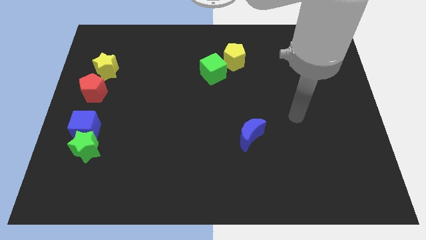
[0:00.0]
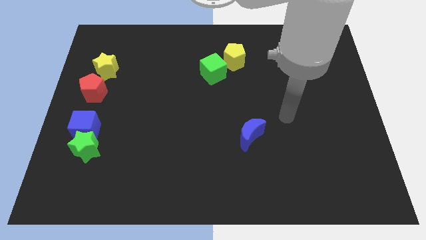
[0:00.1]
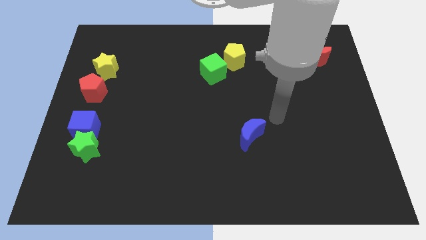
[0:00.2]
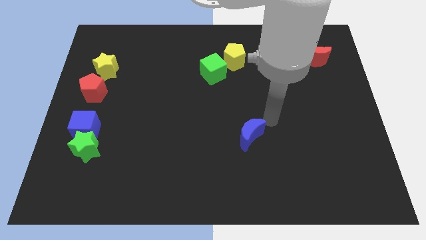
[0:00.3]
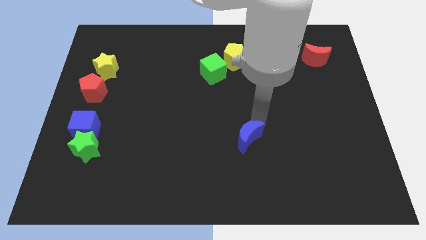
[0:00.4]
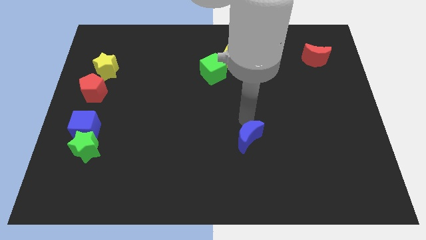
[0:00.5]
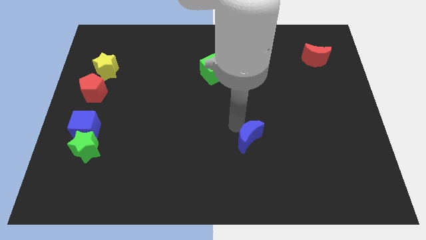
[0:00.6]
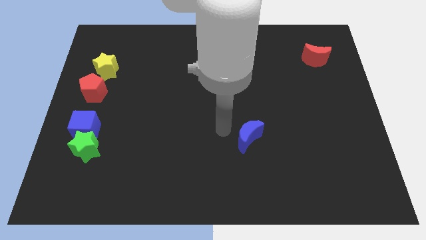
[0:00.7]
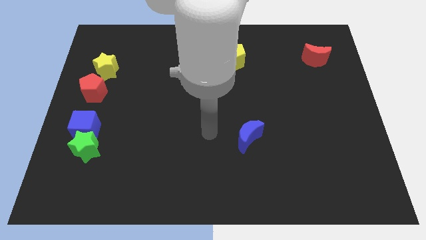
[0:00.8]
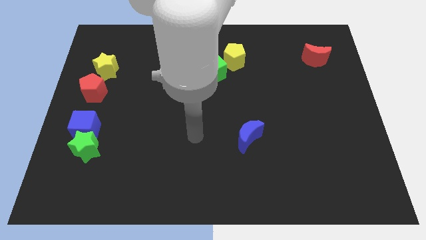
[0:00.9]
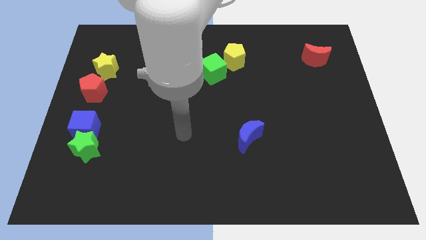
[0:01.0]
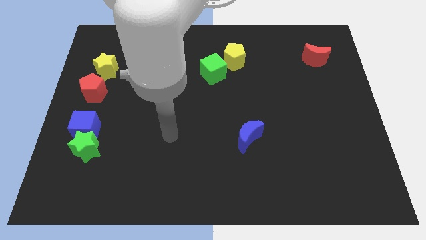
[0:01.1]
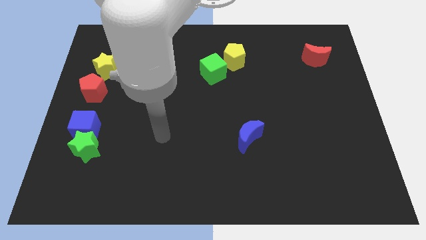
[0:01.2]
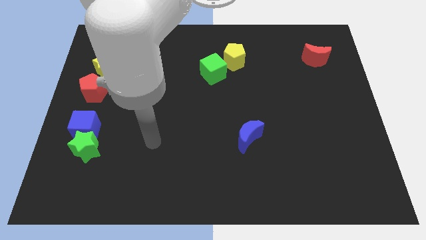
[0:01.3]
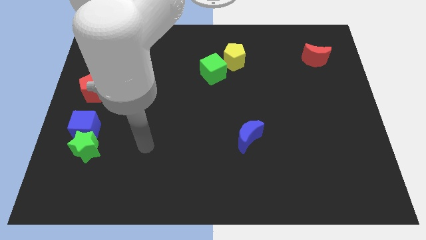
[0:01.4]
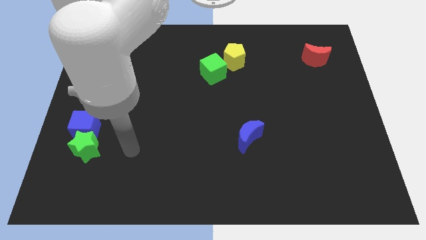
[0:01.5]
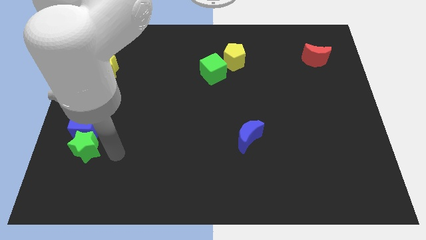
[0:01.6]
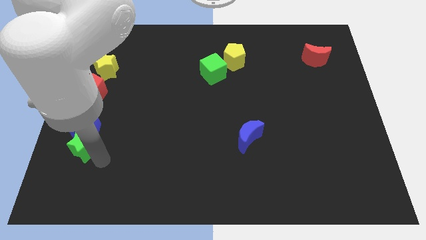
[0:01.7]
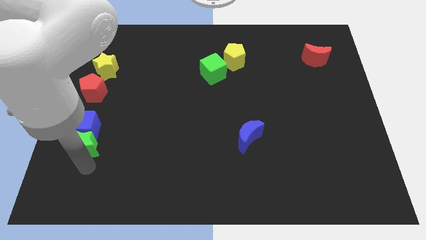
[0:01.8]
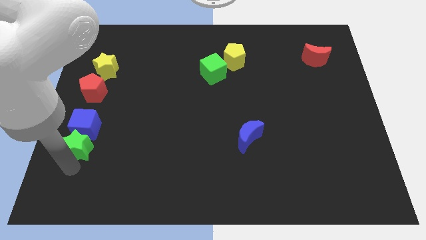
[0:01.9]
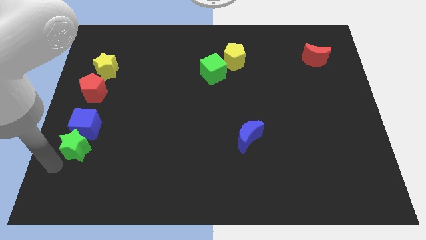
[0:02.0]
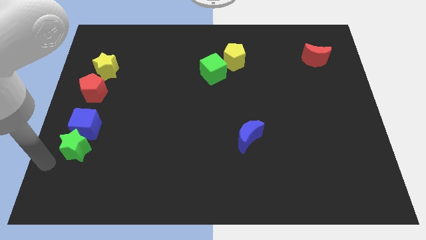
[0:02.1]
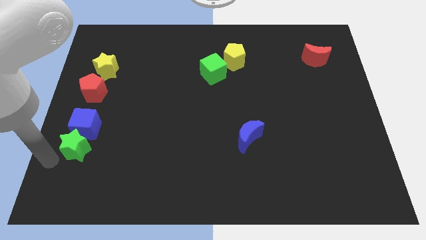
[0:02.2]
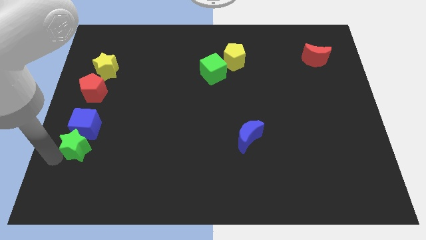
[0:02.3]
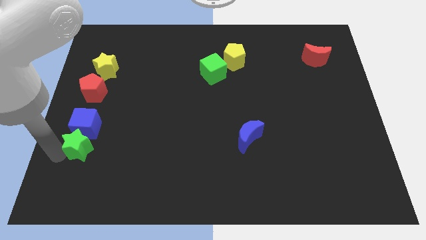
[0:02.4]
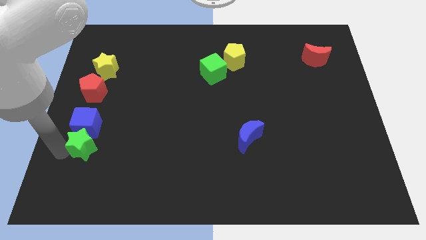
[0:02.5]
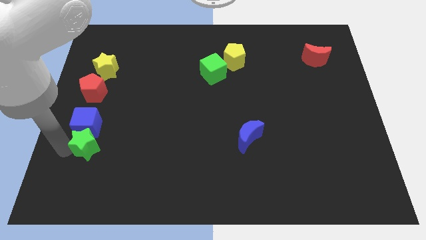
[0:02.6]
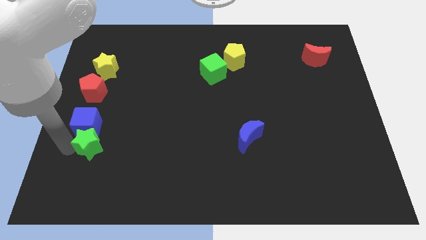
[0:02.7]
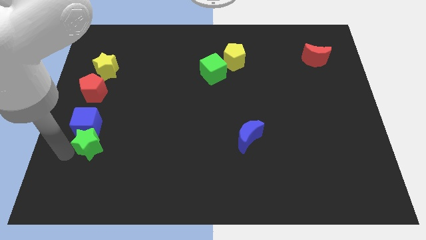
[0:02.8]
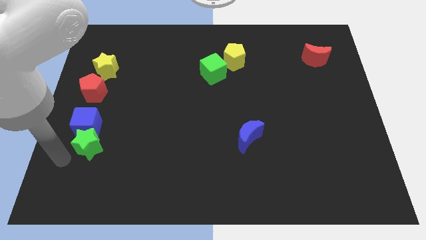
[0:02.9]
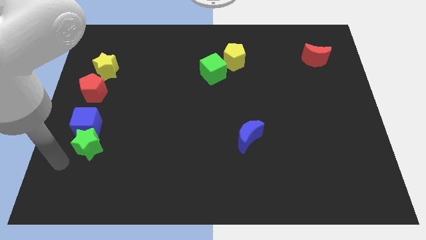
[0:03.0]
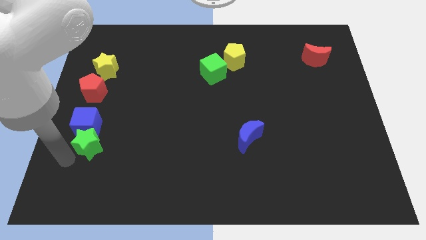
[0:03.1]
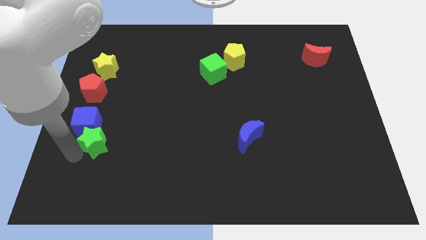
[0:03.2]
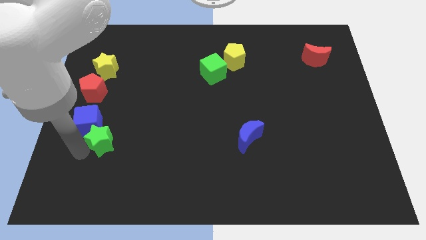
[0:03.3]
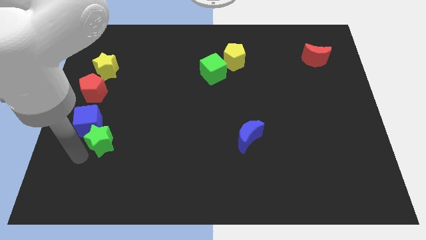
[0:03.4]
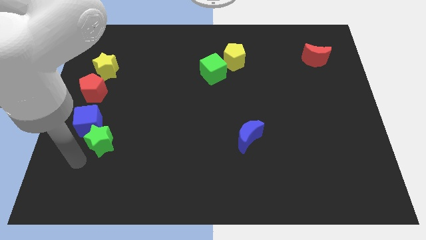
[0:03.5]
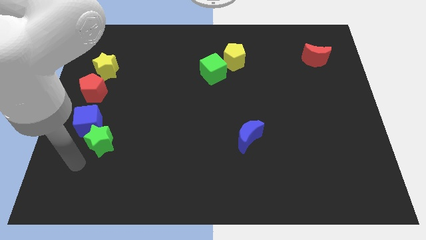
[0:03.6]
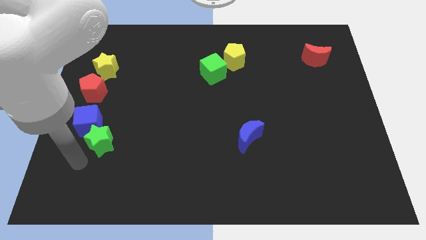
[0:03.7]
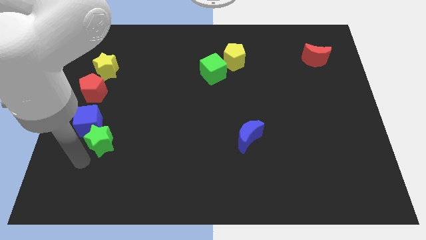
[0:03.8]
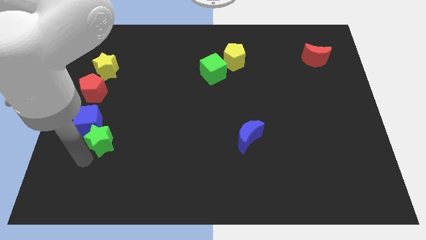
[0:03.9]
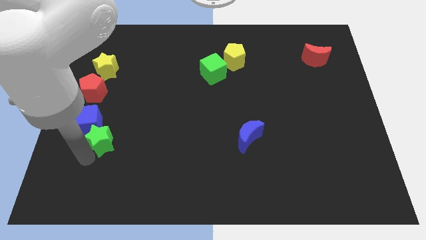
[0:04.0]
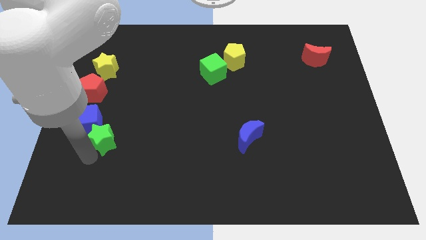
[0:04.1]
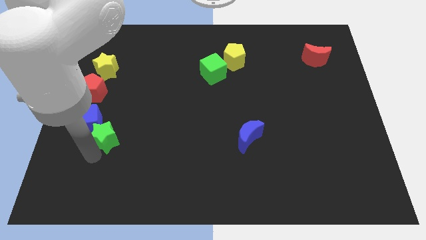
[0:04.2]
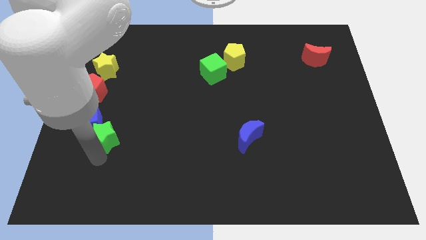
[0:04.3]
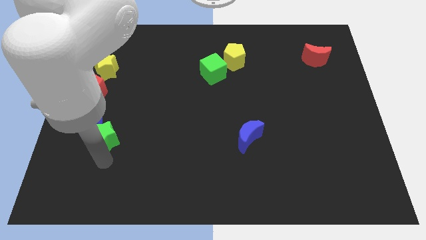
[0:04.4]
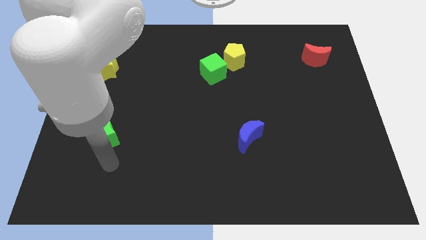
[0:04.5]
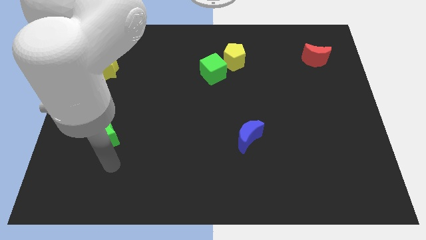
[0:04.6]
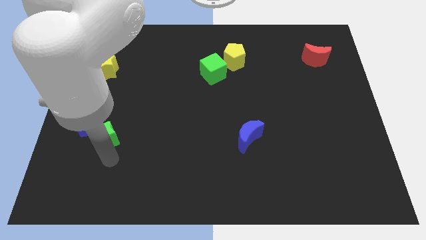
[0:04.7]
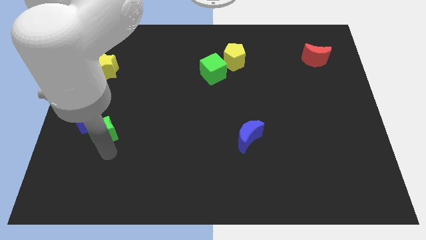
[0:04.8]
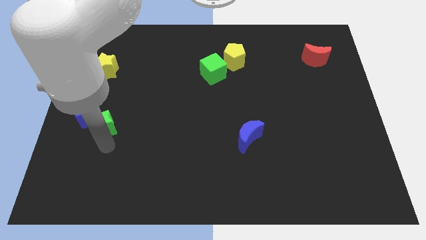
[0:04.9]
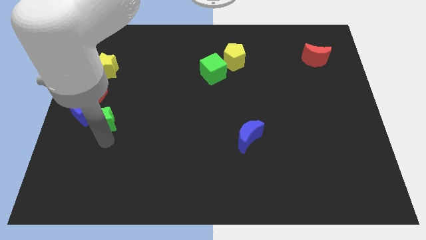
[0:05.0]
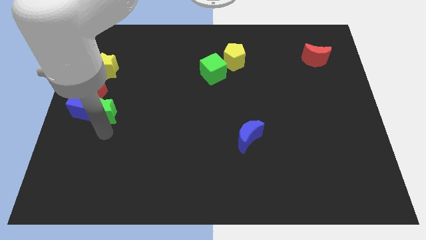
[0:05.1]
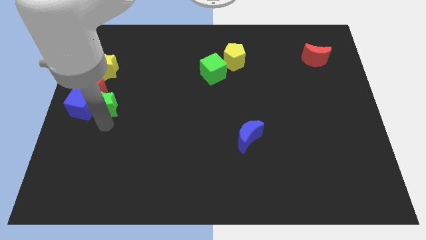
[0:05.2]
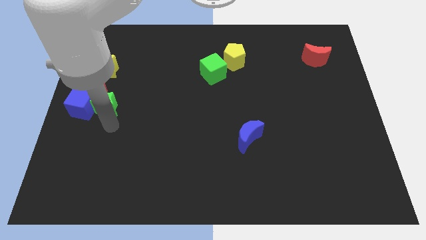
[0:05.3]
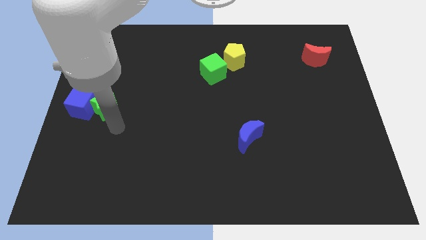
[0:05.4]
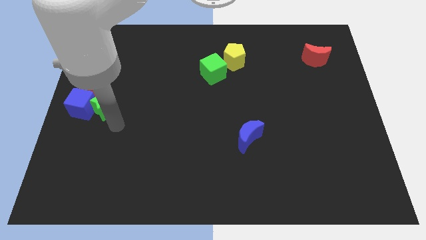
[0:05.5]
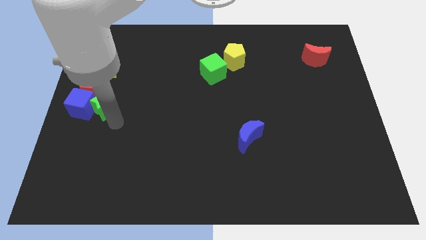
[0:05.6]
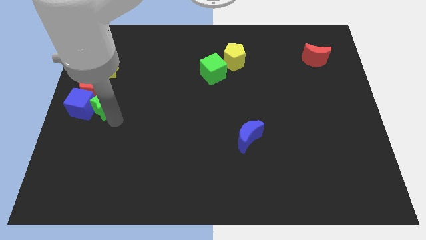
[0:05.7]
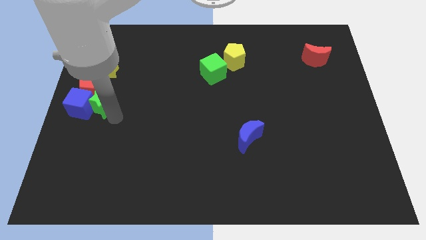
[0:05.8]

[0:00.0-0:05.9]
slide the green star next to the red pentagon

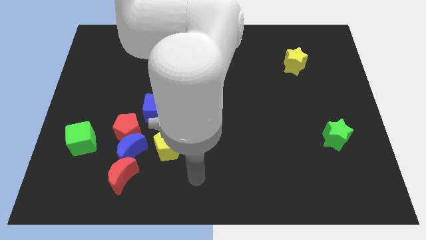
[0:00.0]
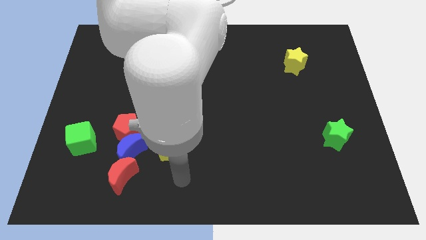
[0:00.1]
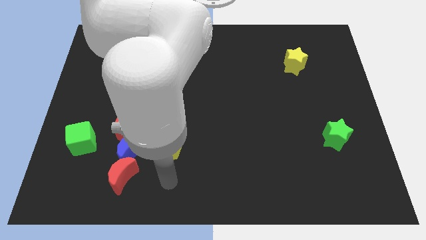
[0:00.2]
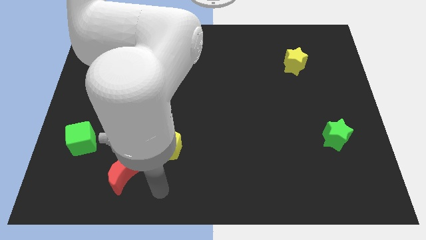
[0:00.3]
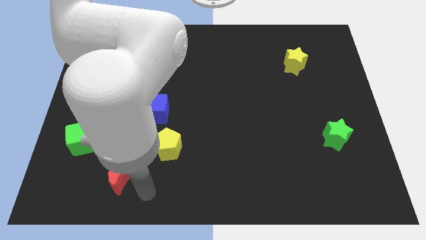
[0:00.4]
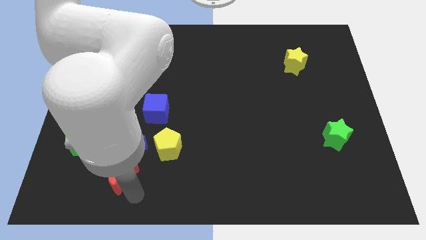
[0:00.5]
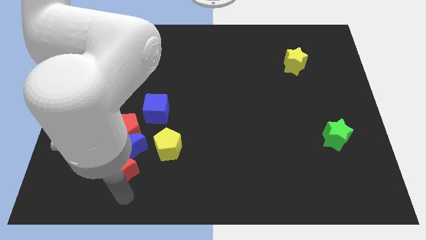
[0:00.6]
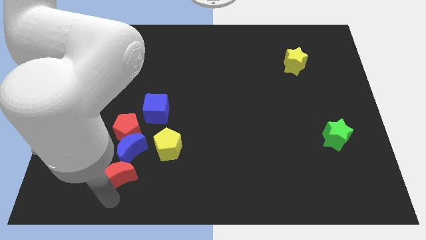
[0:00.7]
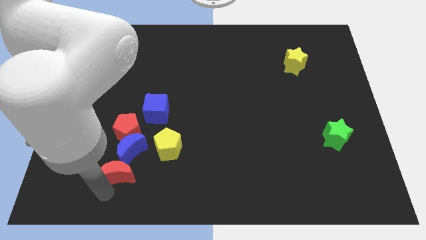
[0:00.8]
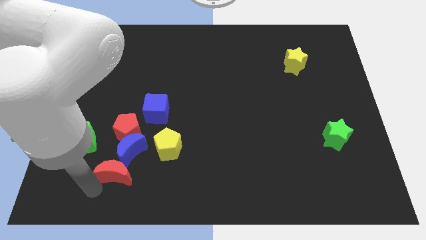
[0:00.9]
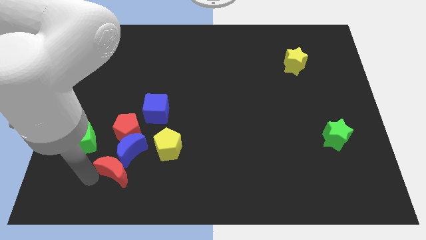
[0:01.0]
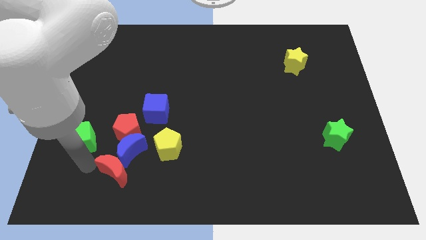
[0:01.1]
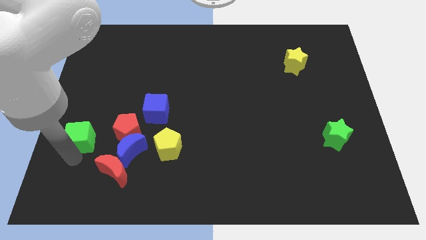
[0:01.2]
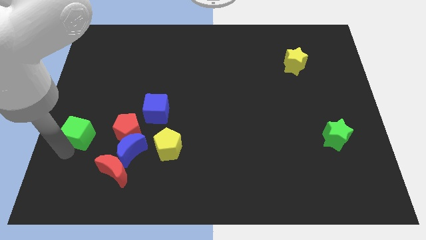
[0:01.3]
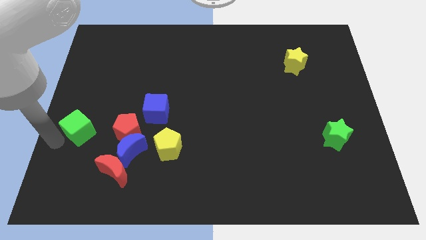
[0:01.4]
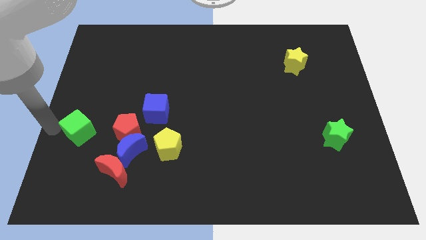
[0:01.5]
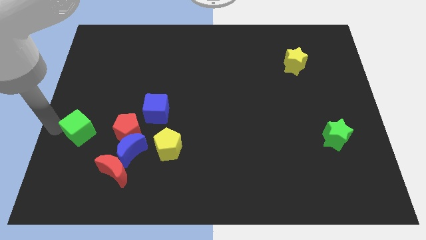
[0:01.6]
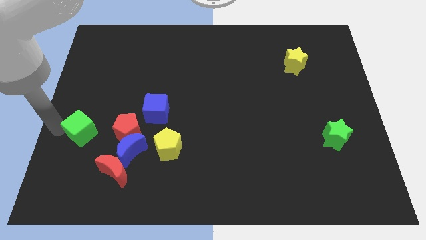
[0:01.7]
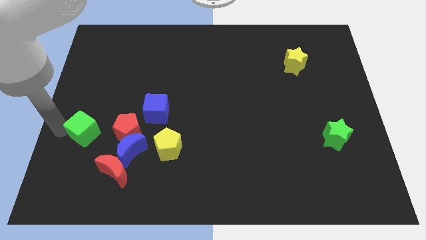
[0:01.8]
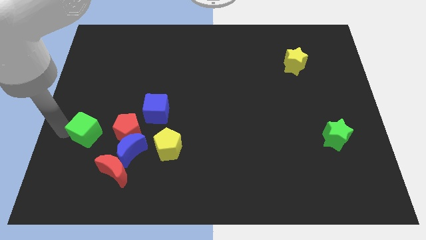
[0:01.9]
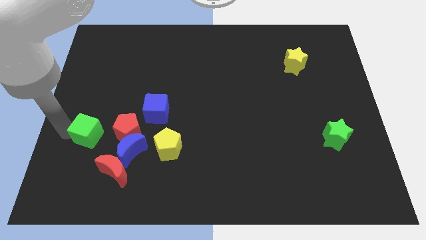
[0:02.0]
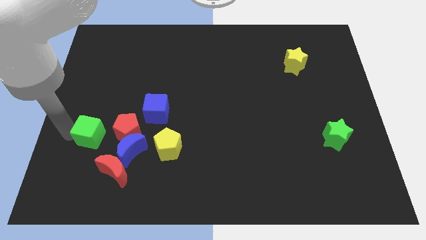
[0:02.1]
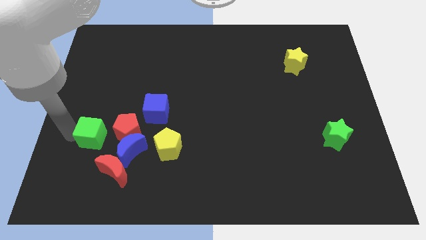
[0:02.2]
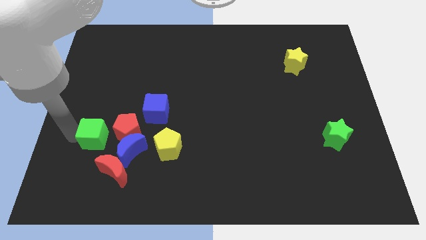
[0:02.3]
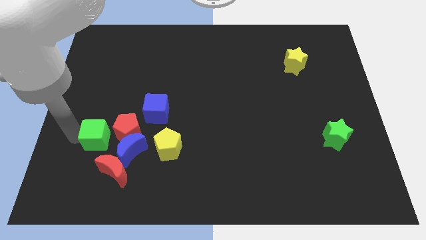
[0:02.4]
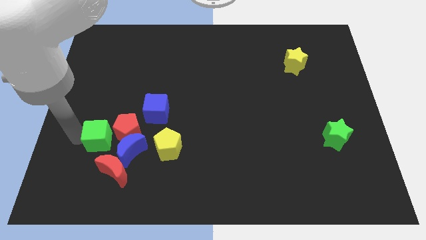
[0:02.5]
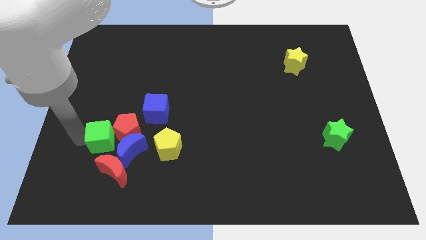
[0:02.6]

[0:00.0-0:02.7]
slide the green cube next to the red pentagon
